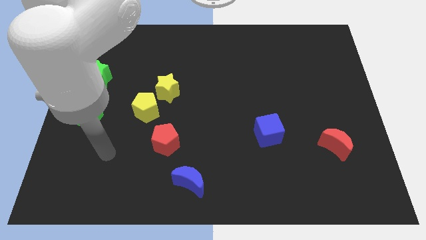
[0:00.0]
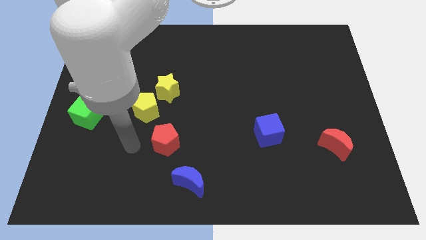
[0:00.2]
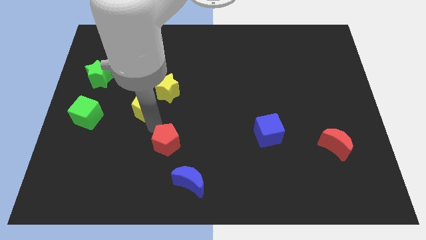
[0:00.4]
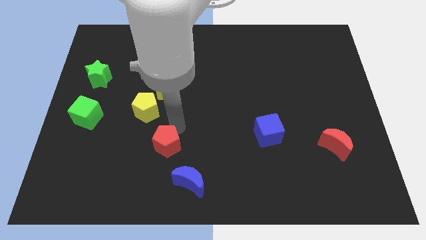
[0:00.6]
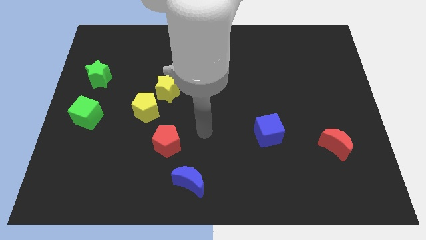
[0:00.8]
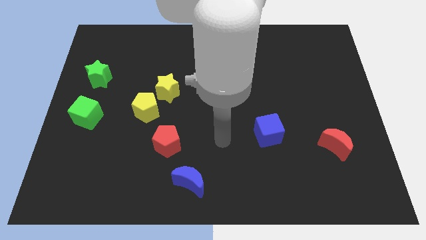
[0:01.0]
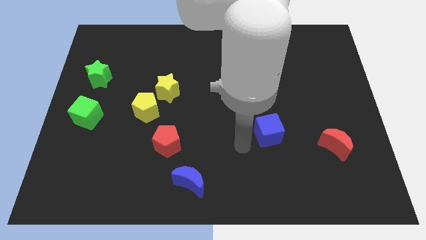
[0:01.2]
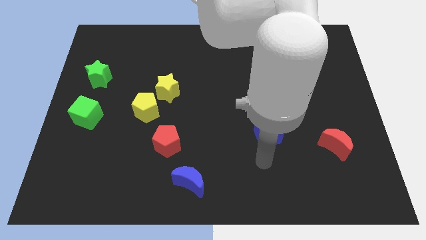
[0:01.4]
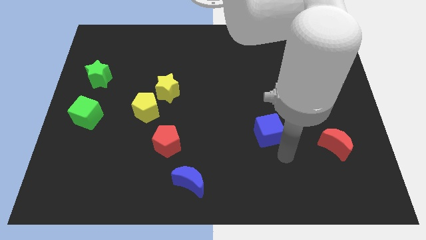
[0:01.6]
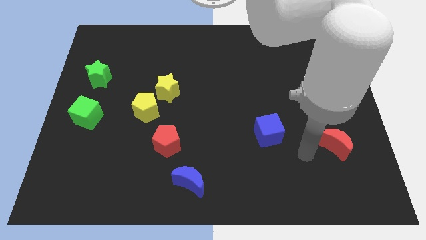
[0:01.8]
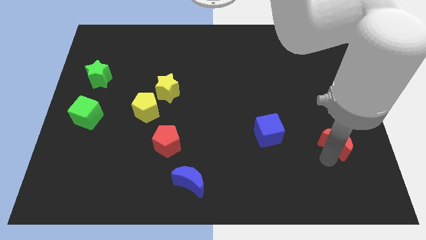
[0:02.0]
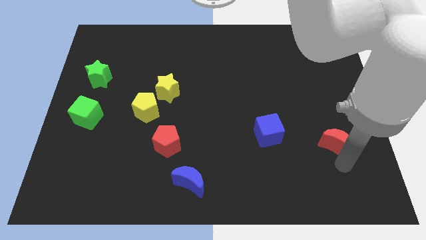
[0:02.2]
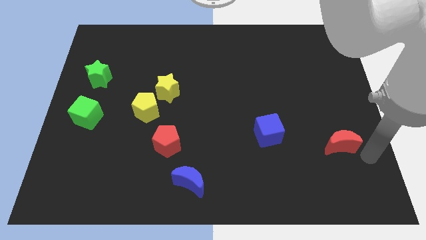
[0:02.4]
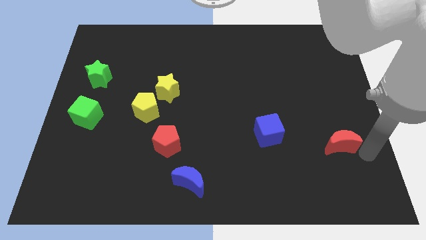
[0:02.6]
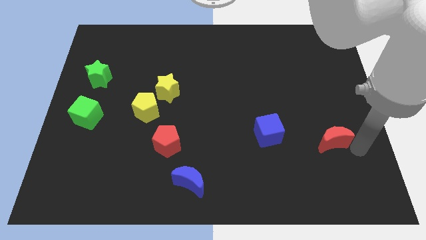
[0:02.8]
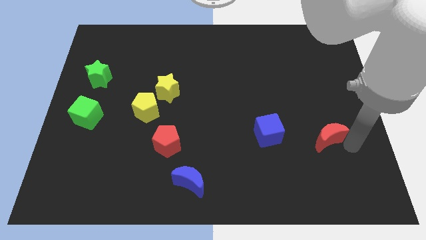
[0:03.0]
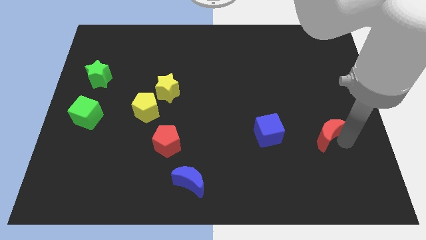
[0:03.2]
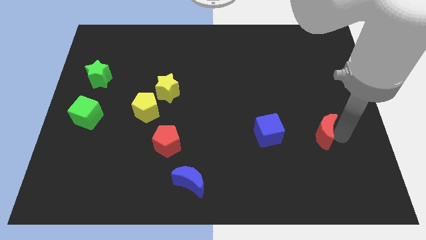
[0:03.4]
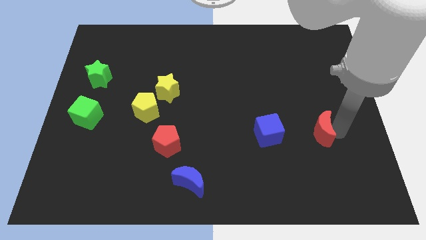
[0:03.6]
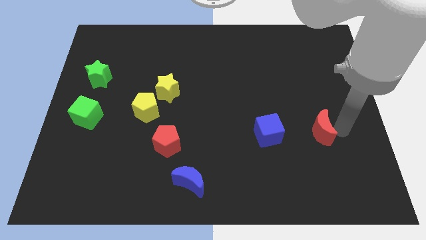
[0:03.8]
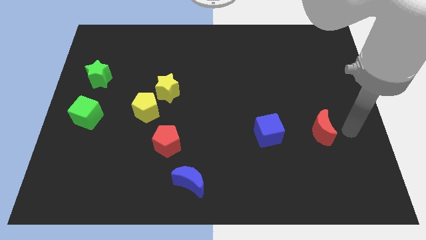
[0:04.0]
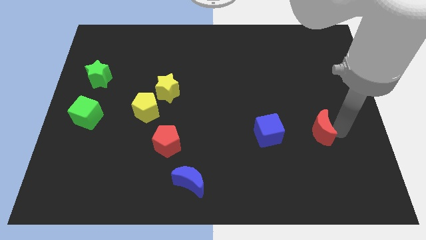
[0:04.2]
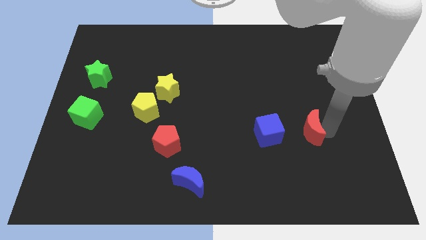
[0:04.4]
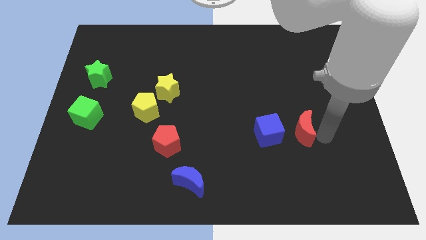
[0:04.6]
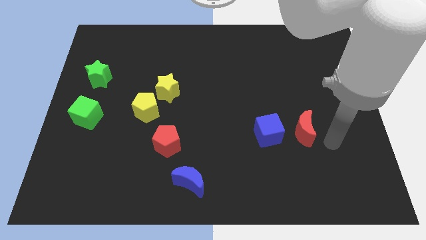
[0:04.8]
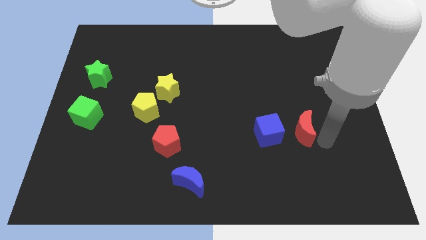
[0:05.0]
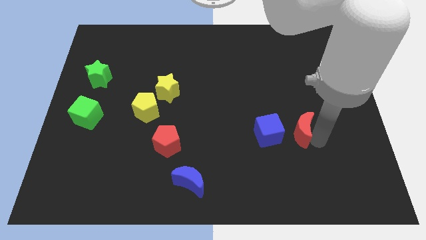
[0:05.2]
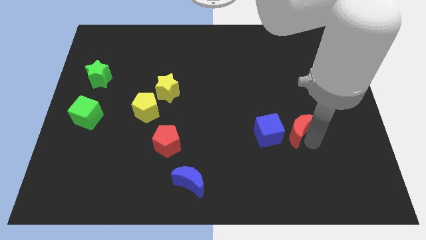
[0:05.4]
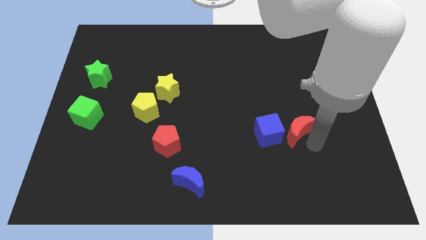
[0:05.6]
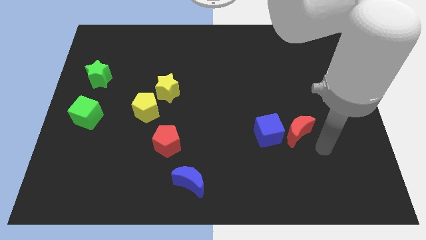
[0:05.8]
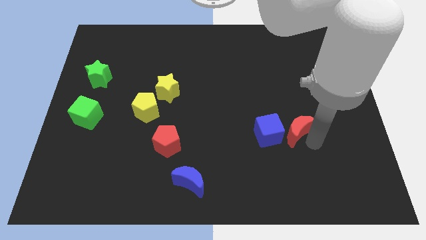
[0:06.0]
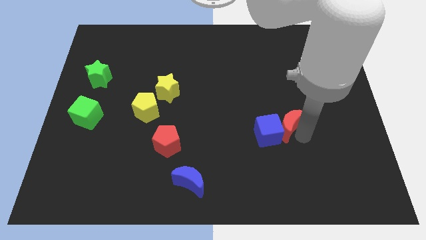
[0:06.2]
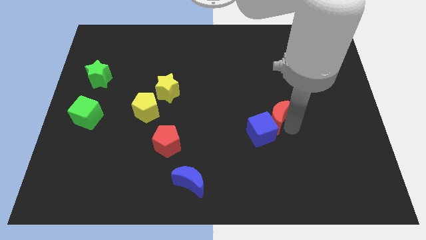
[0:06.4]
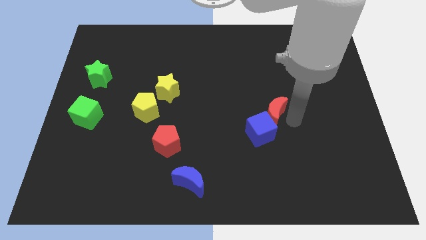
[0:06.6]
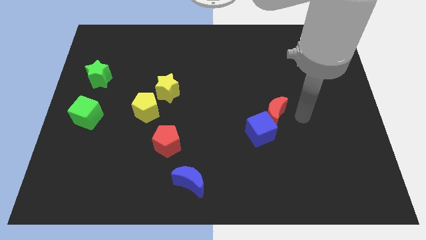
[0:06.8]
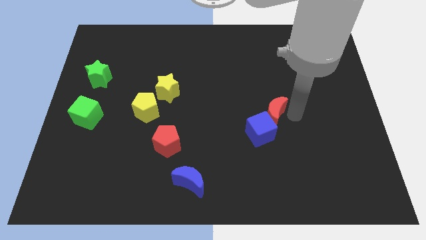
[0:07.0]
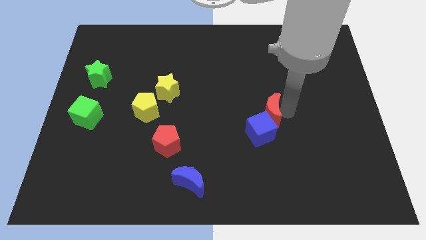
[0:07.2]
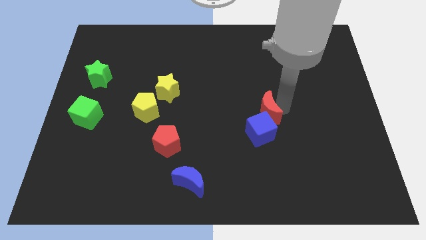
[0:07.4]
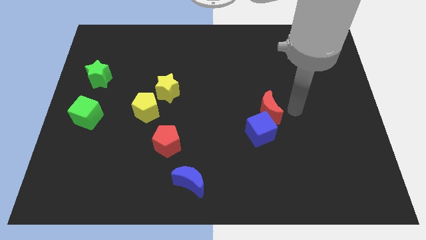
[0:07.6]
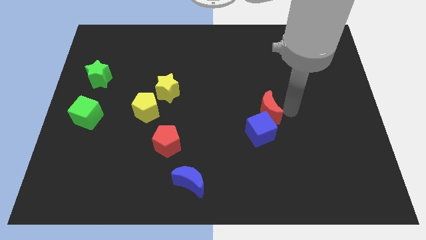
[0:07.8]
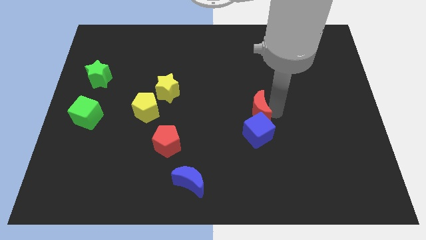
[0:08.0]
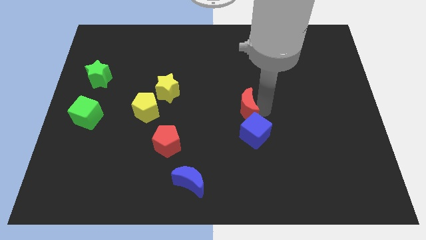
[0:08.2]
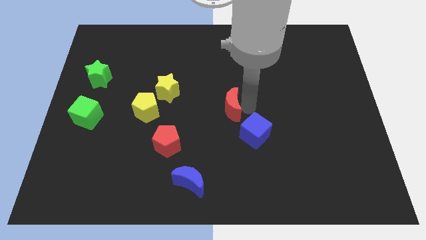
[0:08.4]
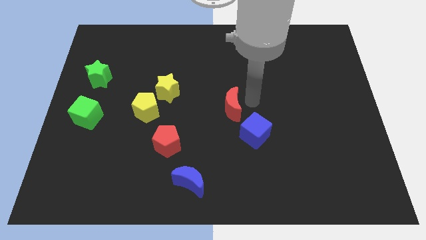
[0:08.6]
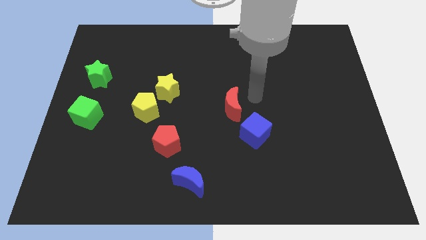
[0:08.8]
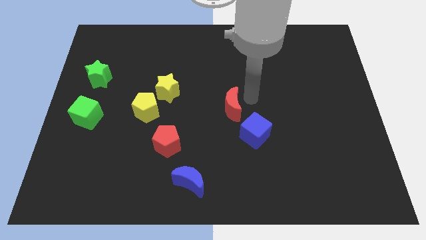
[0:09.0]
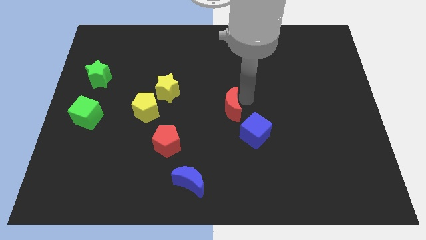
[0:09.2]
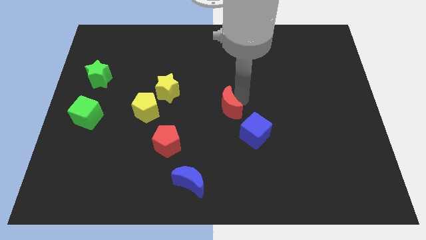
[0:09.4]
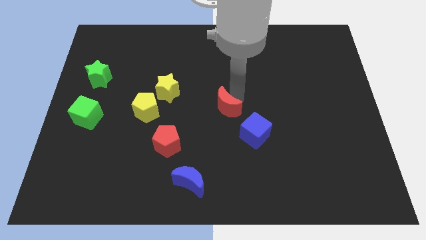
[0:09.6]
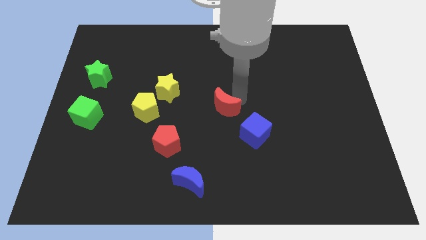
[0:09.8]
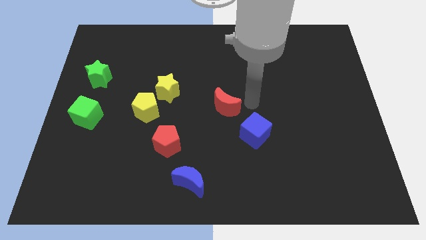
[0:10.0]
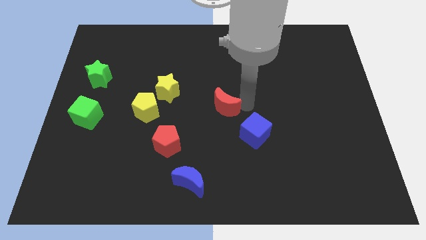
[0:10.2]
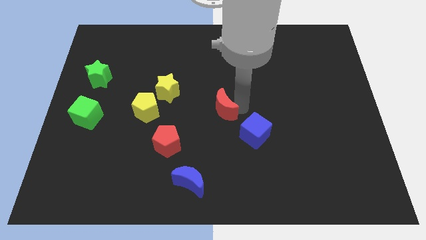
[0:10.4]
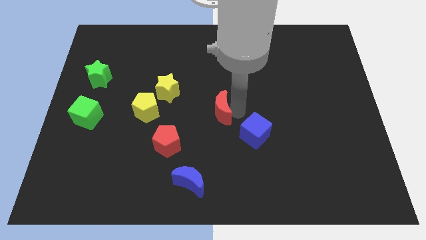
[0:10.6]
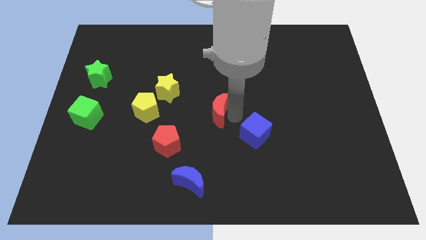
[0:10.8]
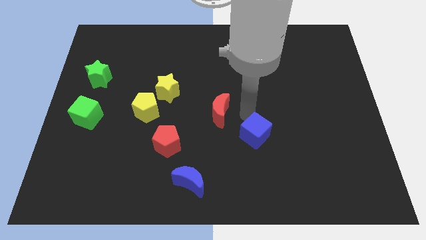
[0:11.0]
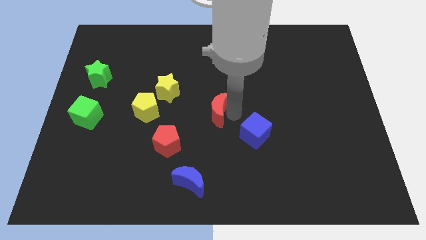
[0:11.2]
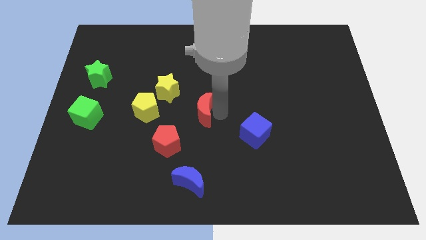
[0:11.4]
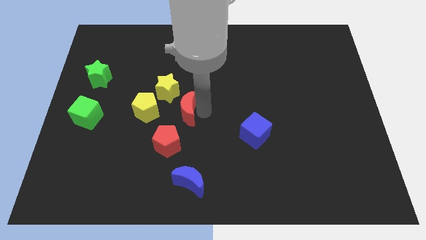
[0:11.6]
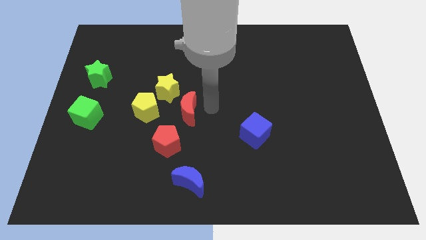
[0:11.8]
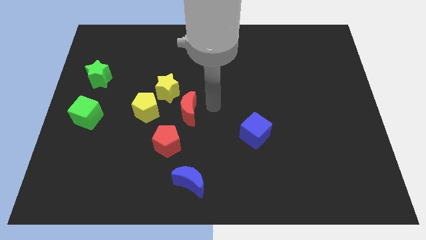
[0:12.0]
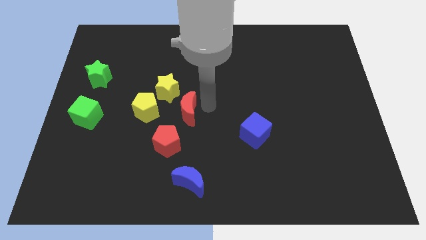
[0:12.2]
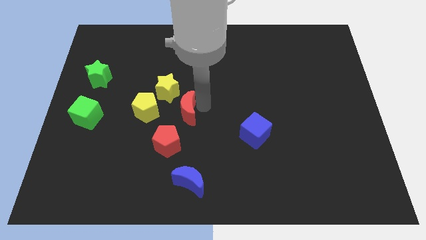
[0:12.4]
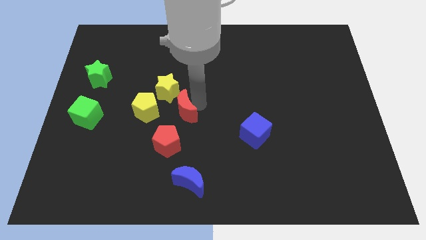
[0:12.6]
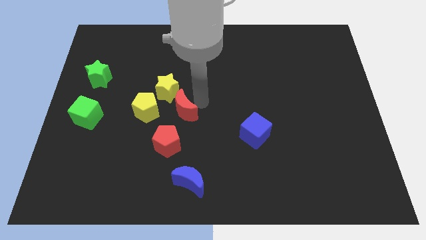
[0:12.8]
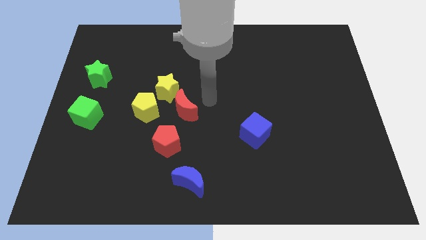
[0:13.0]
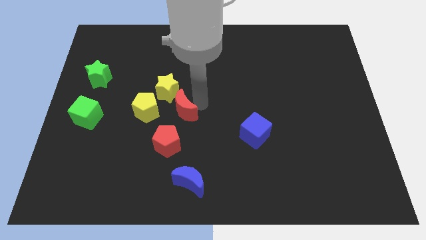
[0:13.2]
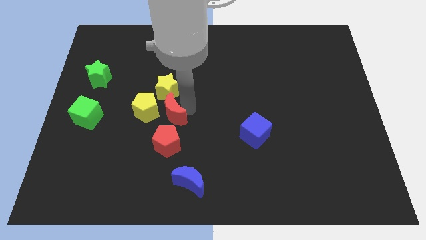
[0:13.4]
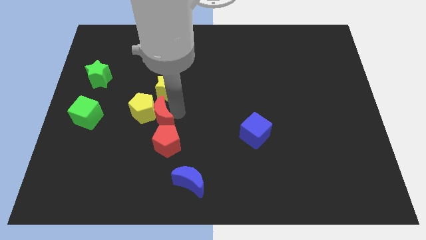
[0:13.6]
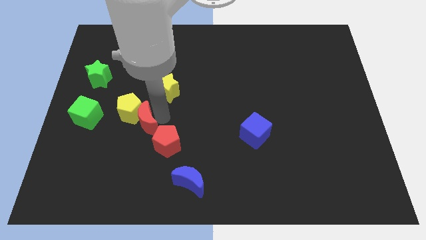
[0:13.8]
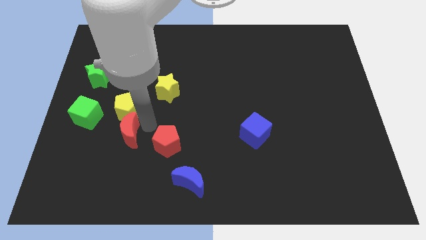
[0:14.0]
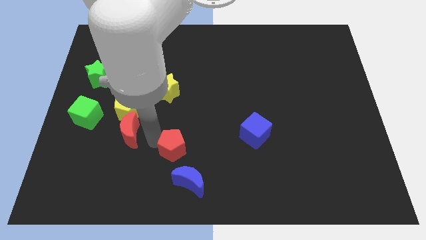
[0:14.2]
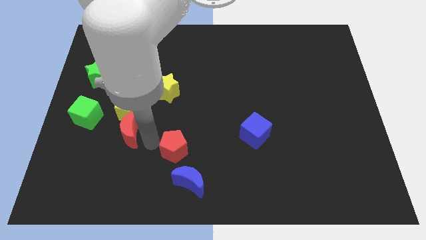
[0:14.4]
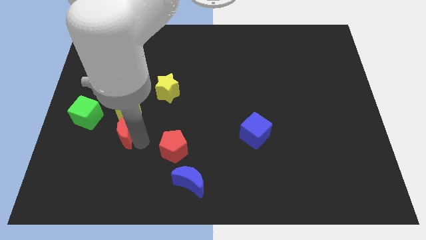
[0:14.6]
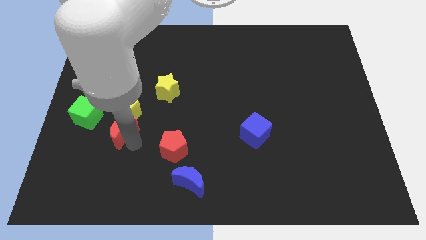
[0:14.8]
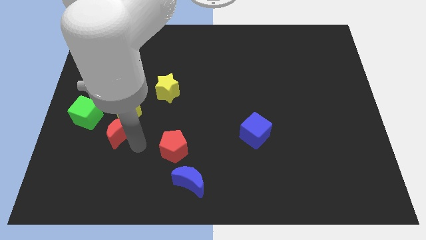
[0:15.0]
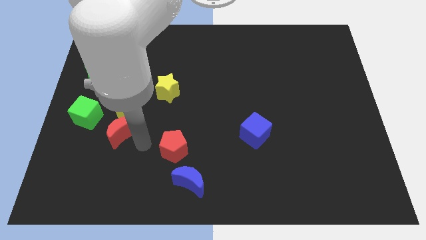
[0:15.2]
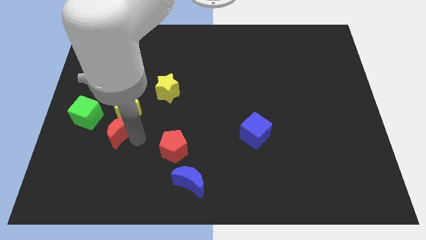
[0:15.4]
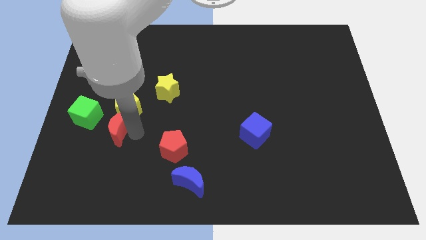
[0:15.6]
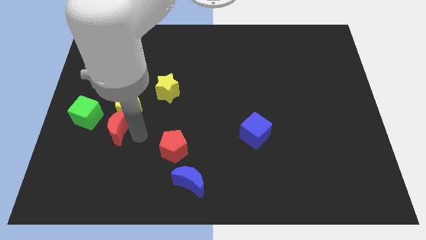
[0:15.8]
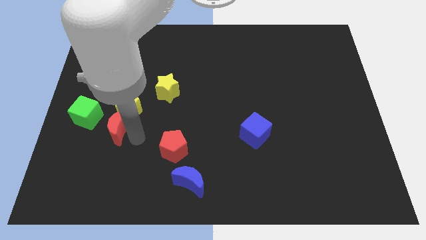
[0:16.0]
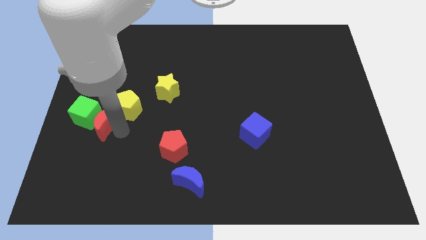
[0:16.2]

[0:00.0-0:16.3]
push the red moon next to the green cube
